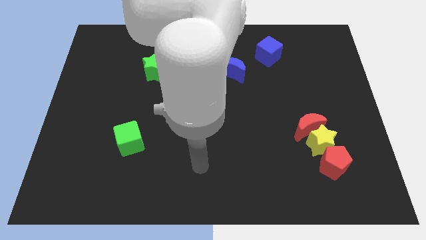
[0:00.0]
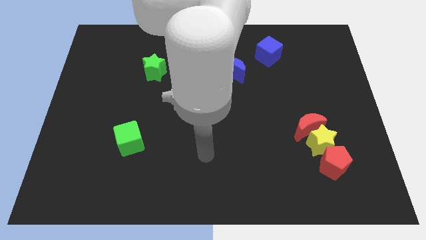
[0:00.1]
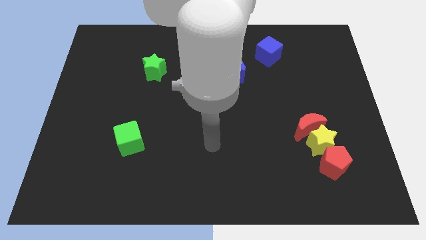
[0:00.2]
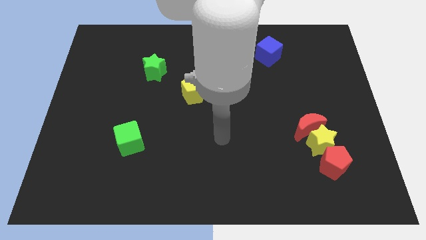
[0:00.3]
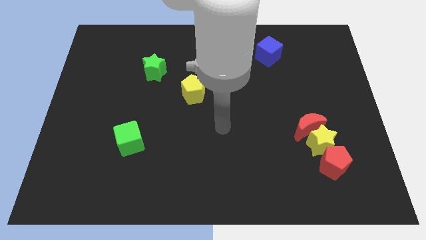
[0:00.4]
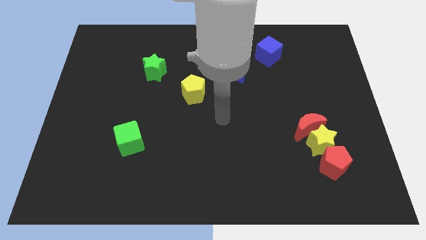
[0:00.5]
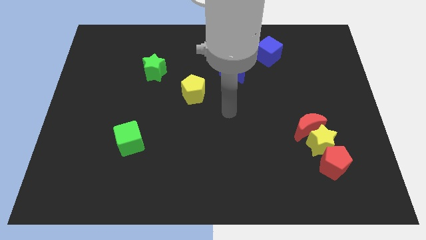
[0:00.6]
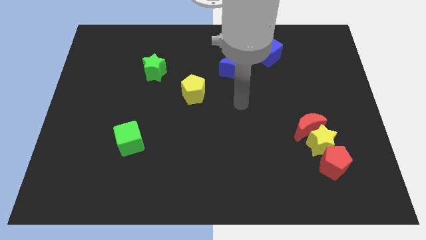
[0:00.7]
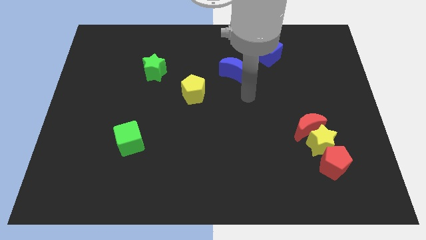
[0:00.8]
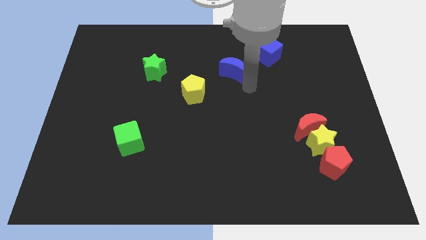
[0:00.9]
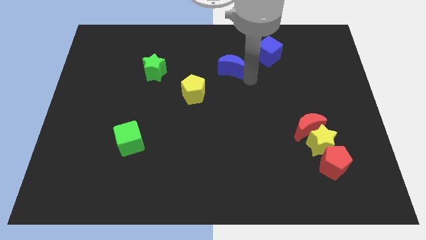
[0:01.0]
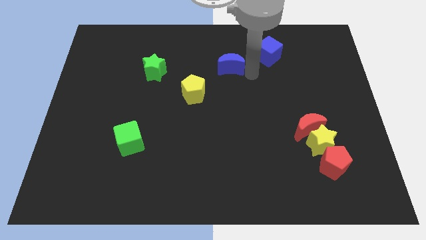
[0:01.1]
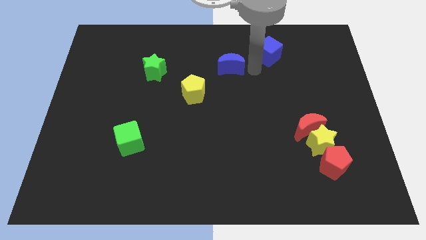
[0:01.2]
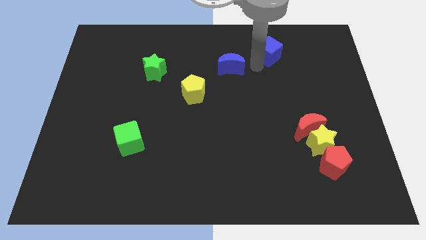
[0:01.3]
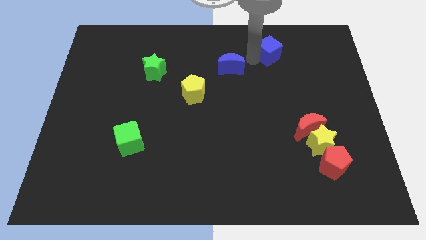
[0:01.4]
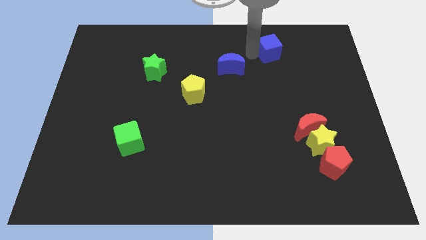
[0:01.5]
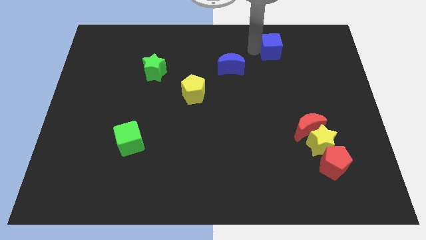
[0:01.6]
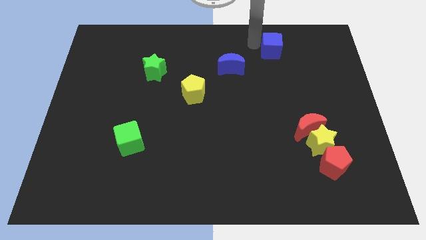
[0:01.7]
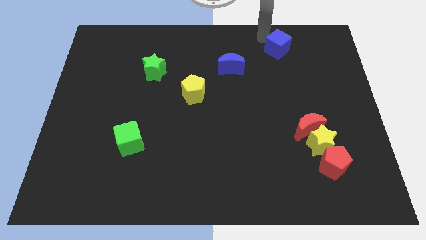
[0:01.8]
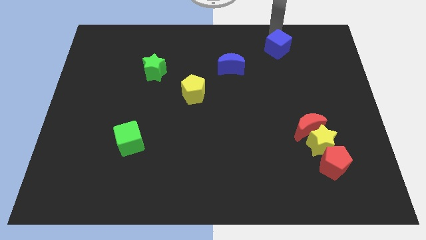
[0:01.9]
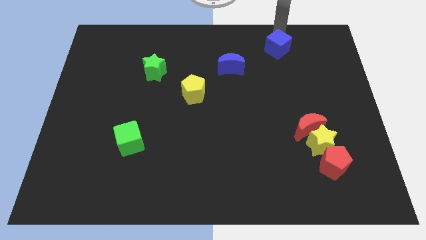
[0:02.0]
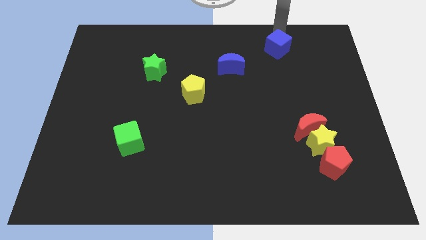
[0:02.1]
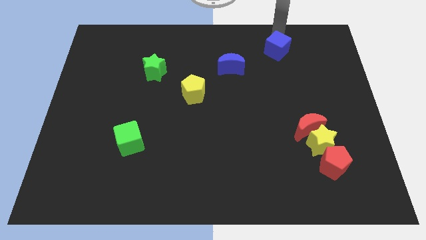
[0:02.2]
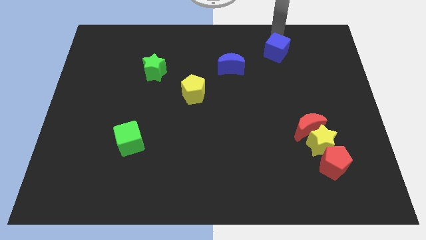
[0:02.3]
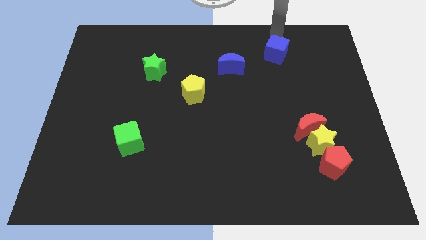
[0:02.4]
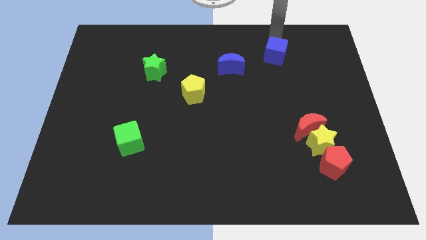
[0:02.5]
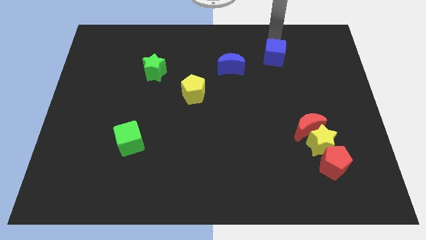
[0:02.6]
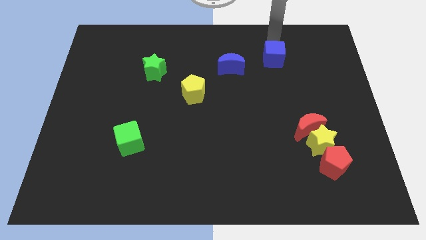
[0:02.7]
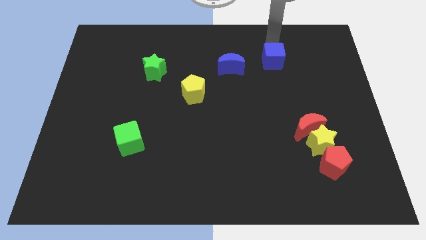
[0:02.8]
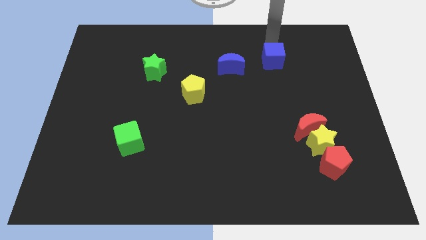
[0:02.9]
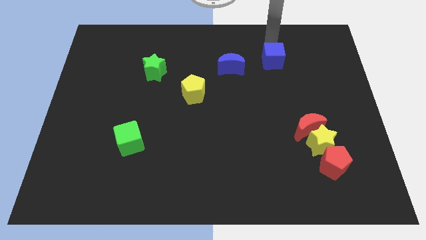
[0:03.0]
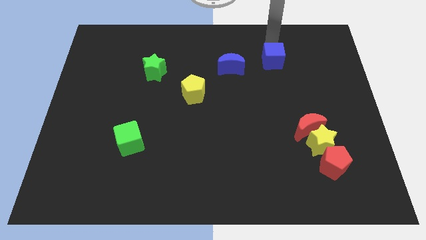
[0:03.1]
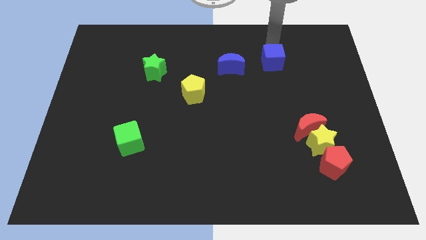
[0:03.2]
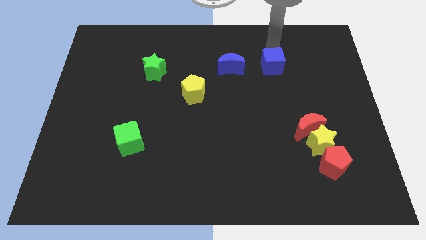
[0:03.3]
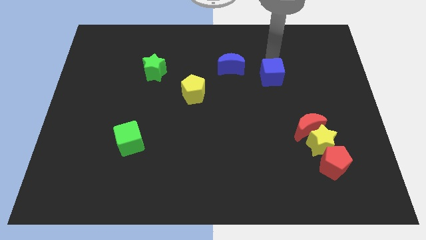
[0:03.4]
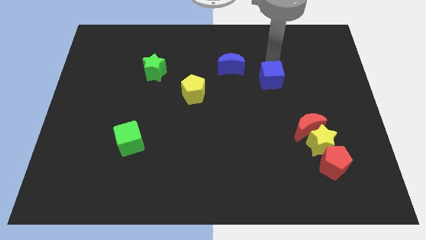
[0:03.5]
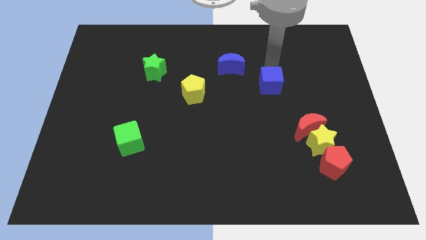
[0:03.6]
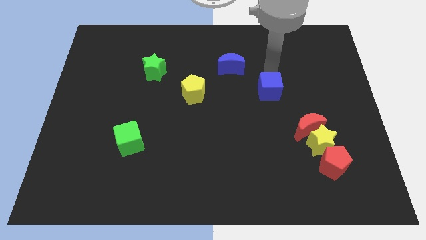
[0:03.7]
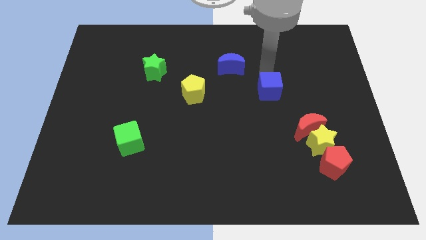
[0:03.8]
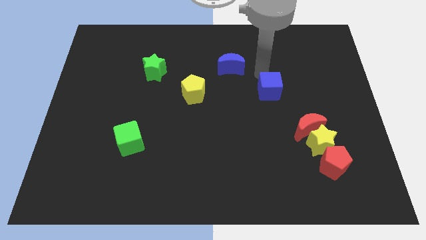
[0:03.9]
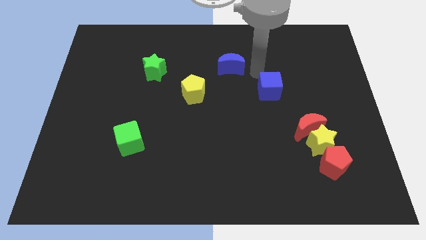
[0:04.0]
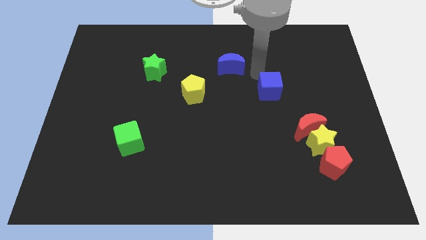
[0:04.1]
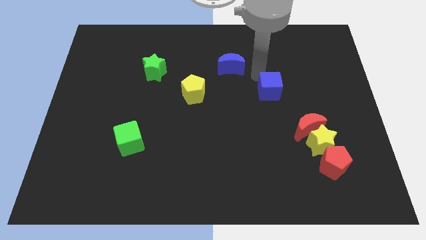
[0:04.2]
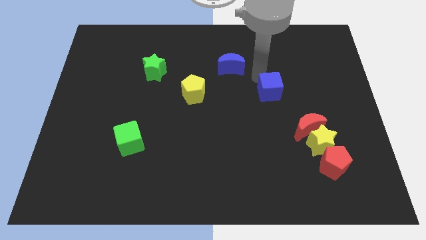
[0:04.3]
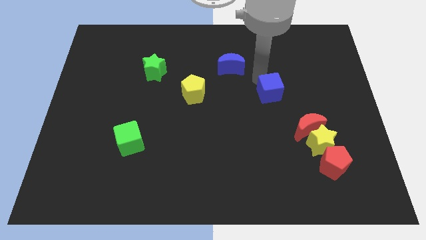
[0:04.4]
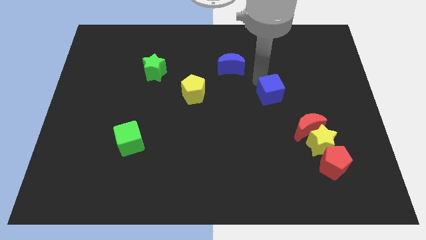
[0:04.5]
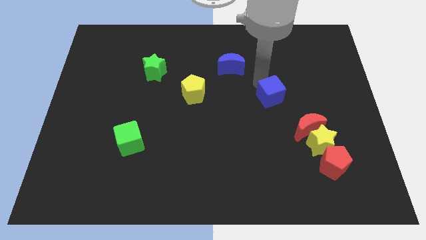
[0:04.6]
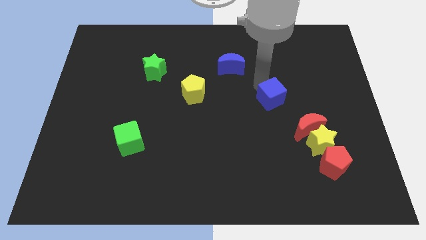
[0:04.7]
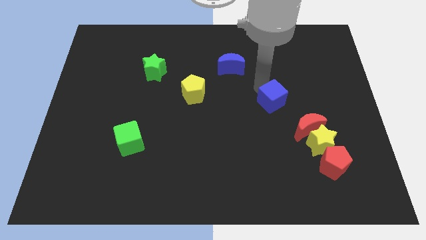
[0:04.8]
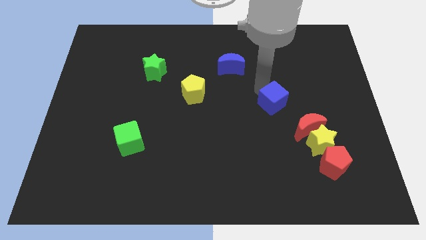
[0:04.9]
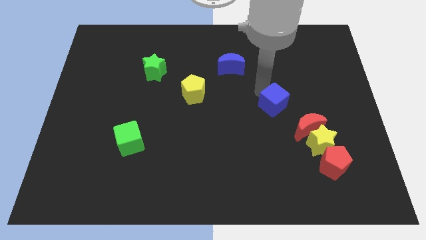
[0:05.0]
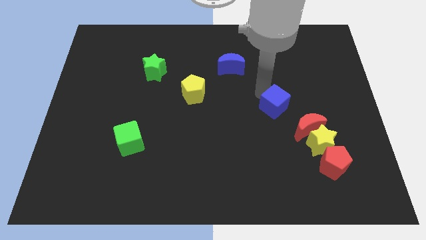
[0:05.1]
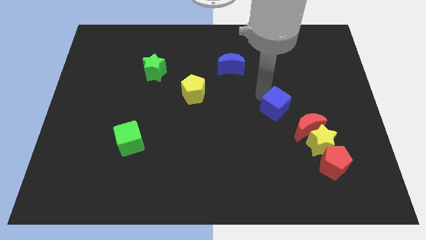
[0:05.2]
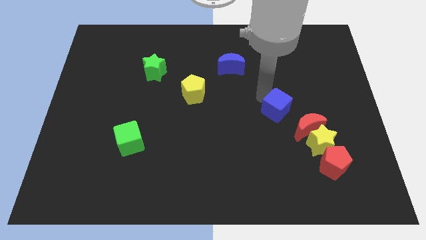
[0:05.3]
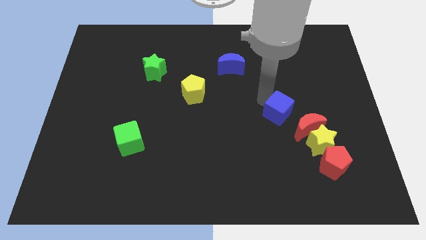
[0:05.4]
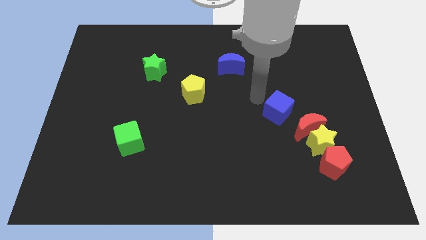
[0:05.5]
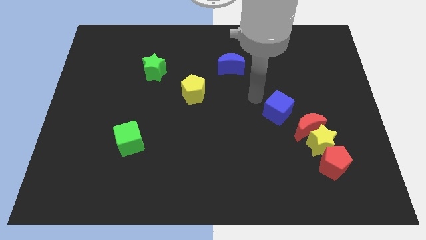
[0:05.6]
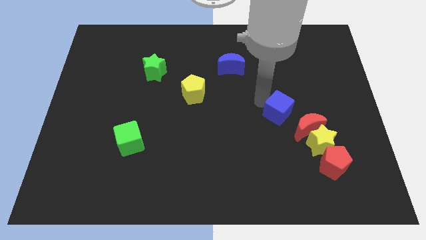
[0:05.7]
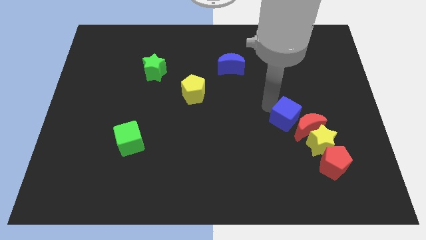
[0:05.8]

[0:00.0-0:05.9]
push the blue cube towards the red moon
